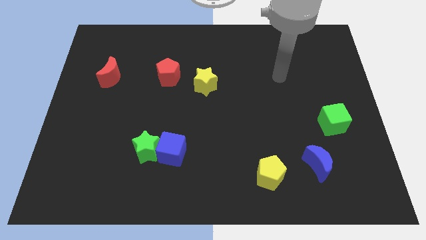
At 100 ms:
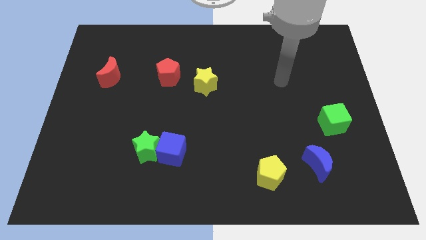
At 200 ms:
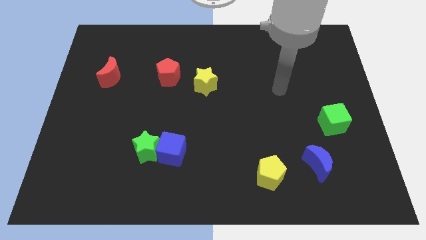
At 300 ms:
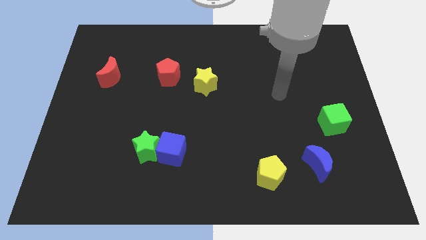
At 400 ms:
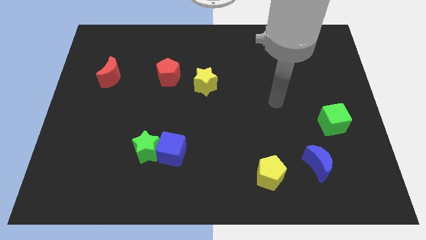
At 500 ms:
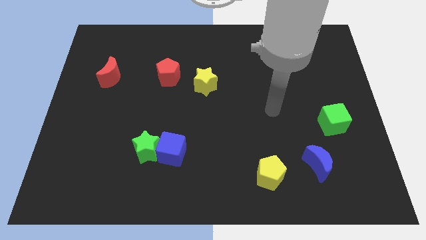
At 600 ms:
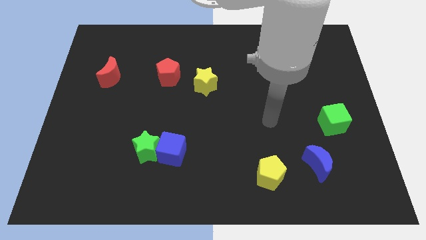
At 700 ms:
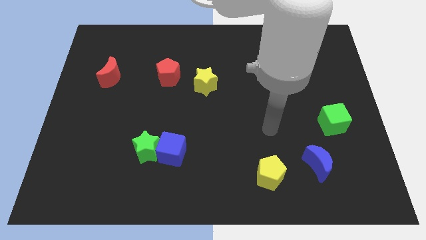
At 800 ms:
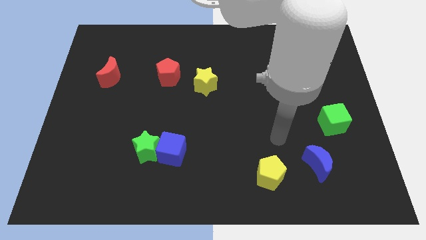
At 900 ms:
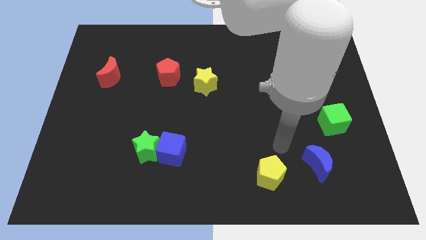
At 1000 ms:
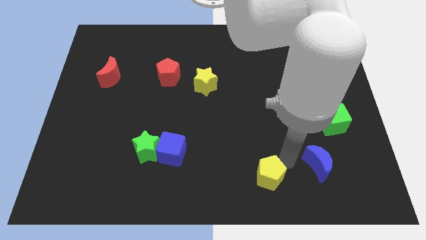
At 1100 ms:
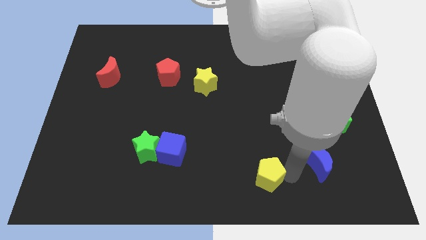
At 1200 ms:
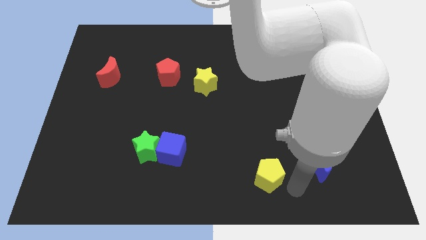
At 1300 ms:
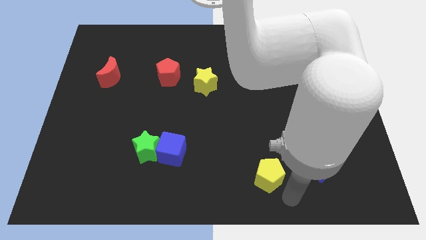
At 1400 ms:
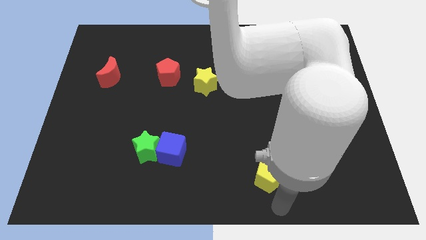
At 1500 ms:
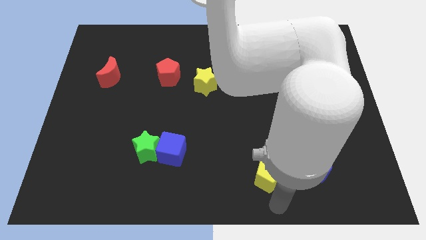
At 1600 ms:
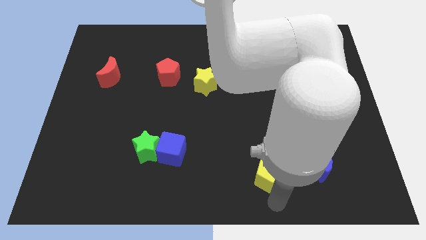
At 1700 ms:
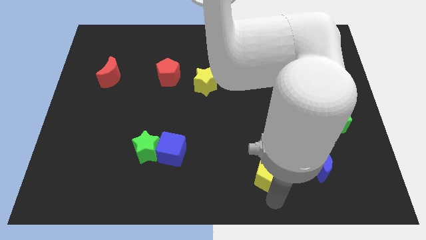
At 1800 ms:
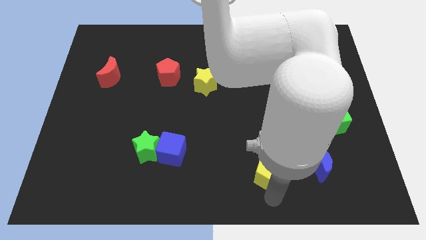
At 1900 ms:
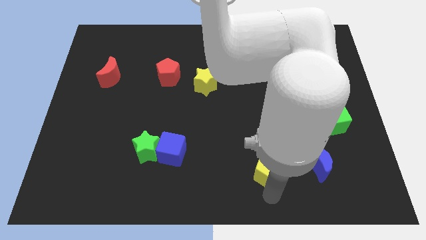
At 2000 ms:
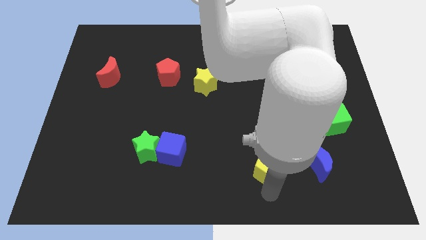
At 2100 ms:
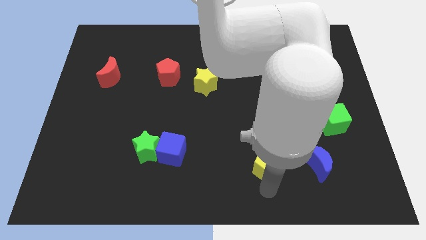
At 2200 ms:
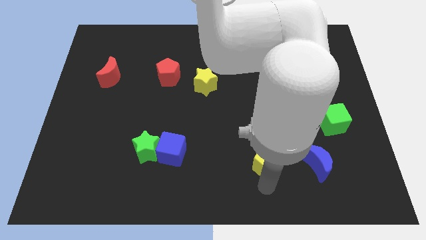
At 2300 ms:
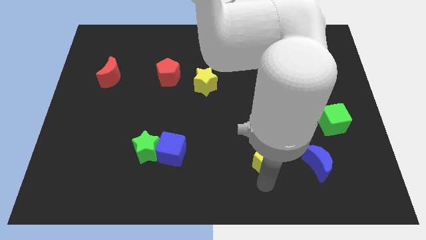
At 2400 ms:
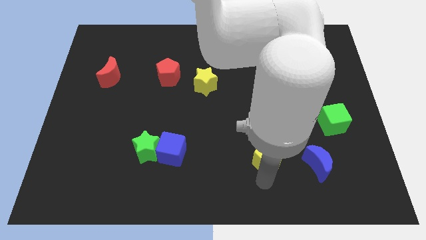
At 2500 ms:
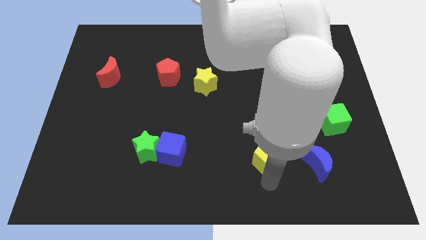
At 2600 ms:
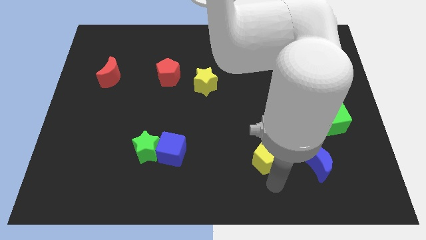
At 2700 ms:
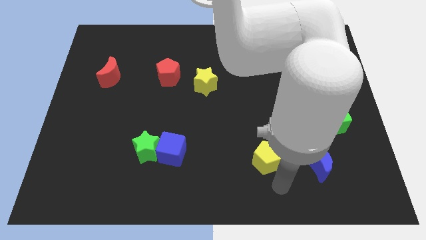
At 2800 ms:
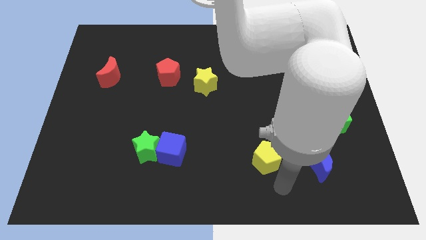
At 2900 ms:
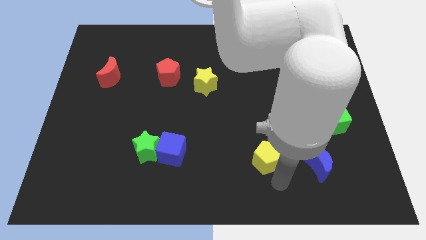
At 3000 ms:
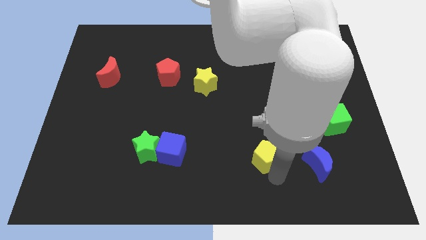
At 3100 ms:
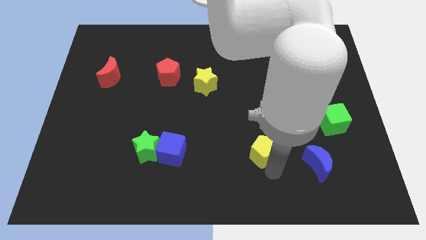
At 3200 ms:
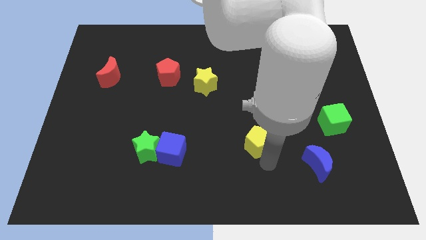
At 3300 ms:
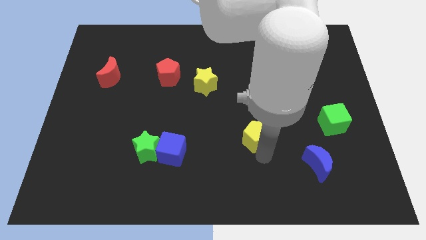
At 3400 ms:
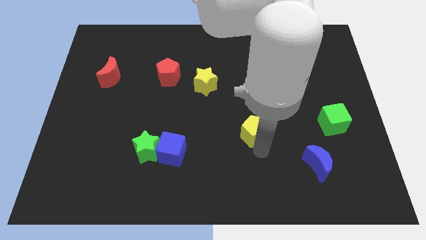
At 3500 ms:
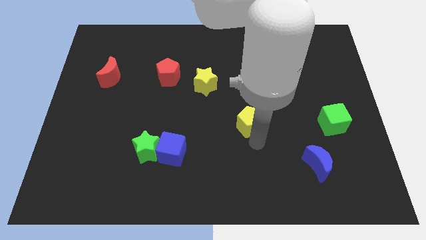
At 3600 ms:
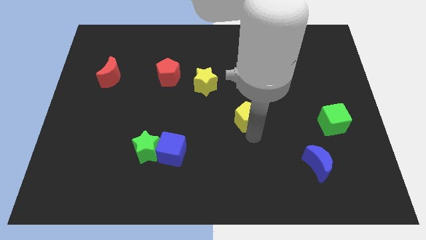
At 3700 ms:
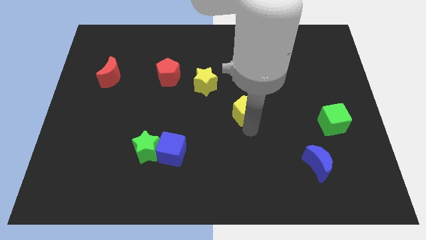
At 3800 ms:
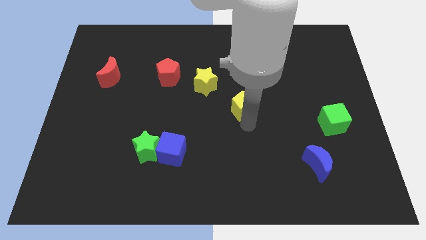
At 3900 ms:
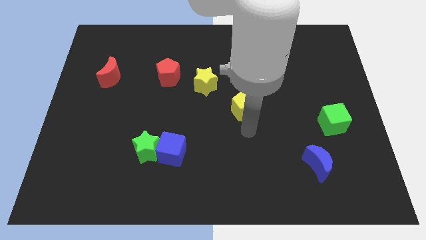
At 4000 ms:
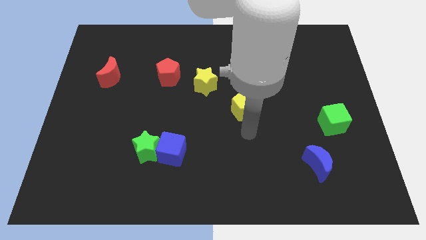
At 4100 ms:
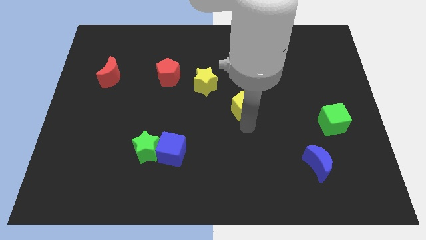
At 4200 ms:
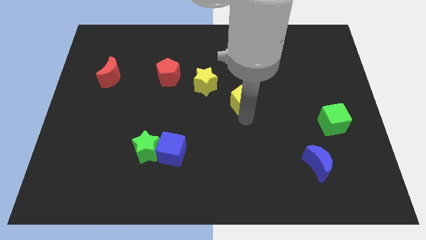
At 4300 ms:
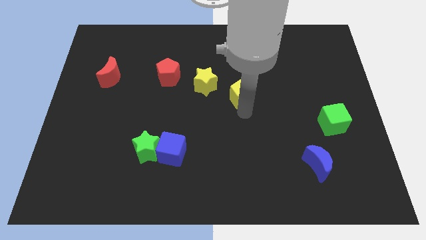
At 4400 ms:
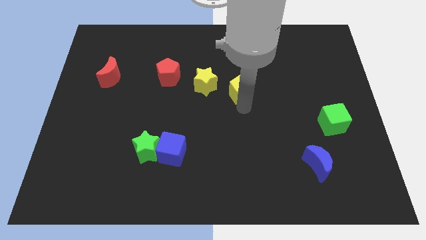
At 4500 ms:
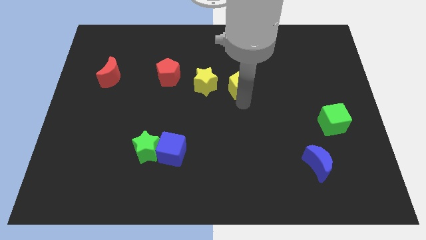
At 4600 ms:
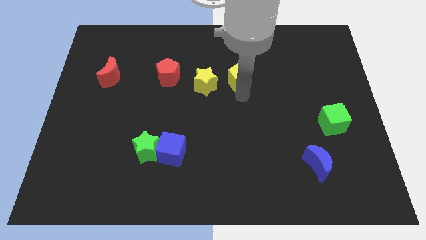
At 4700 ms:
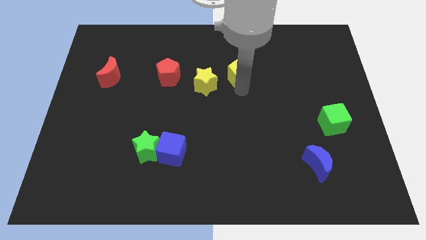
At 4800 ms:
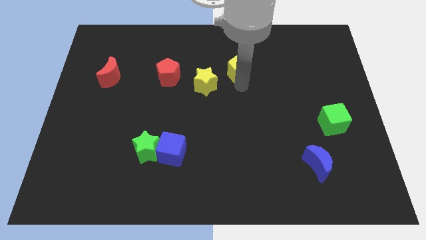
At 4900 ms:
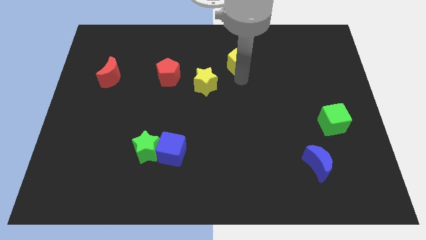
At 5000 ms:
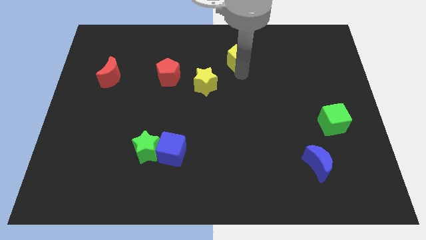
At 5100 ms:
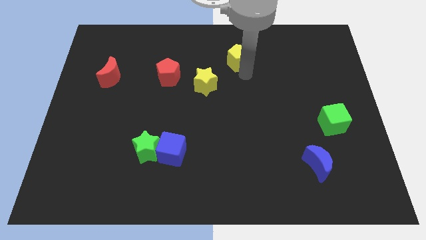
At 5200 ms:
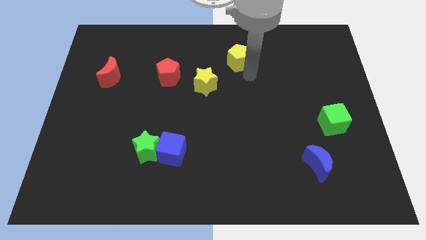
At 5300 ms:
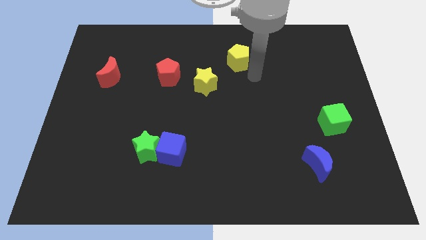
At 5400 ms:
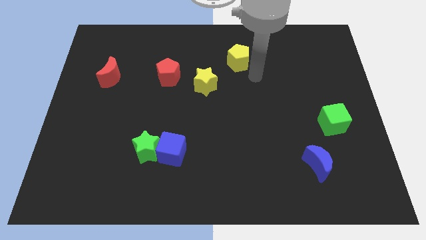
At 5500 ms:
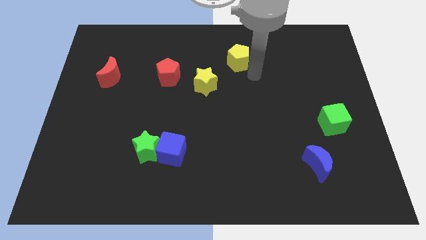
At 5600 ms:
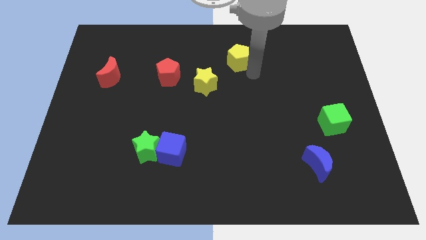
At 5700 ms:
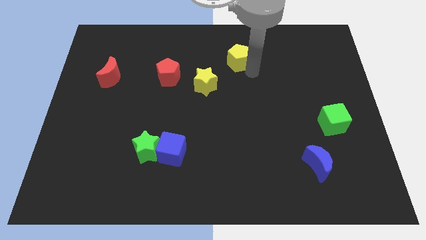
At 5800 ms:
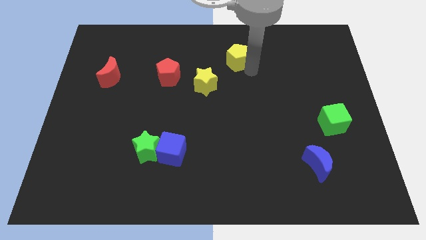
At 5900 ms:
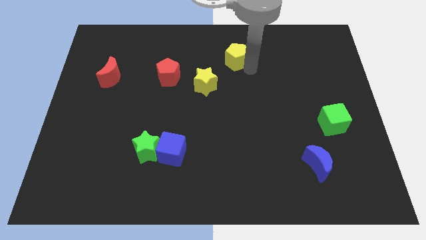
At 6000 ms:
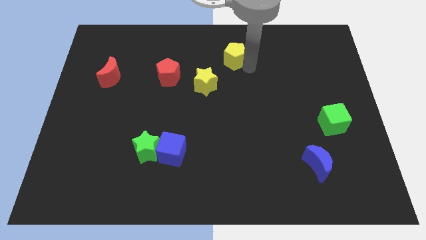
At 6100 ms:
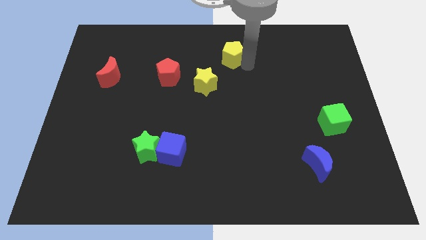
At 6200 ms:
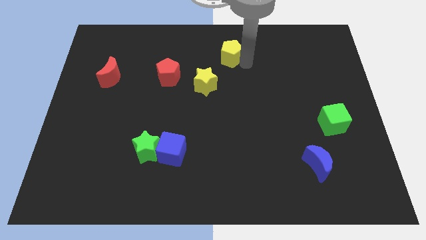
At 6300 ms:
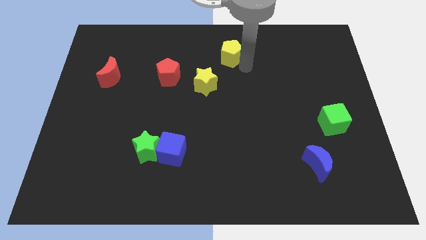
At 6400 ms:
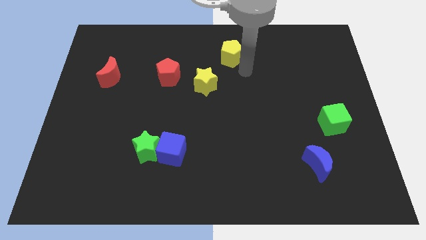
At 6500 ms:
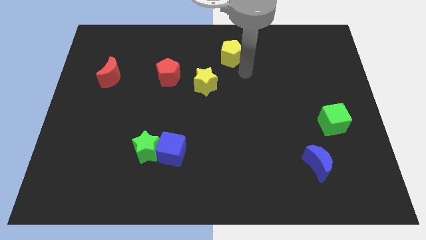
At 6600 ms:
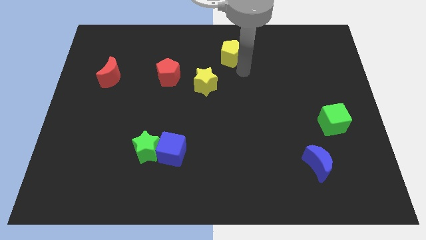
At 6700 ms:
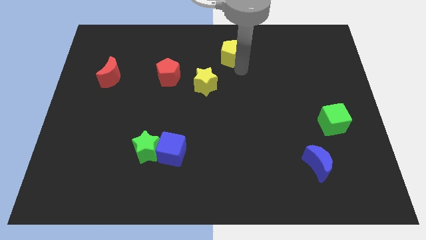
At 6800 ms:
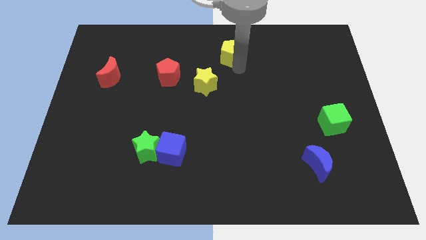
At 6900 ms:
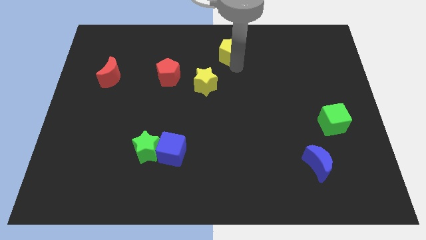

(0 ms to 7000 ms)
move the yellow pentagon to the top side

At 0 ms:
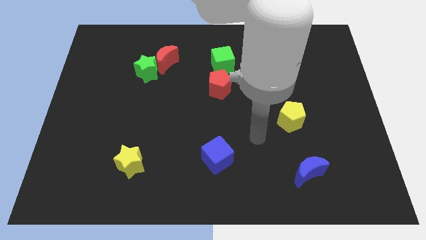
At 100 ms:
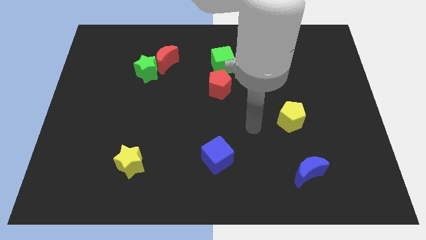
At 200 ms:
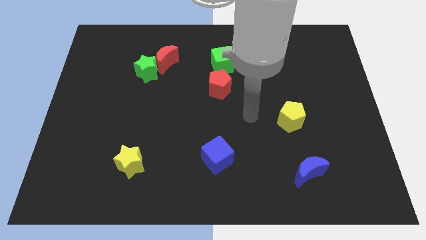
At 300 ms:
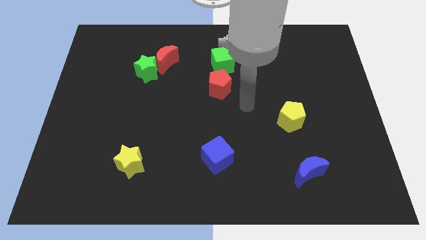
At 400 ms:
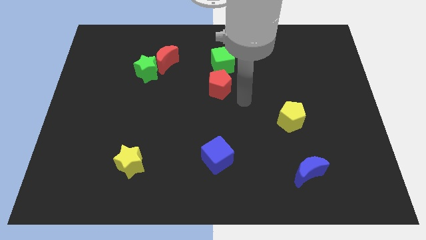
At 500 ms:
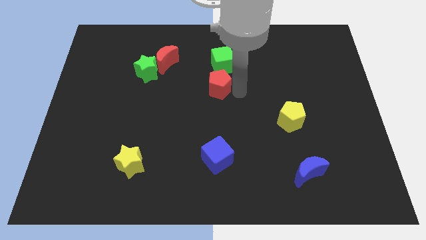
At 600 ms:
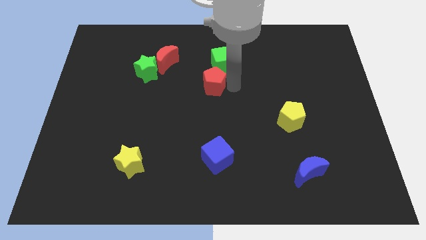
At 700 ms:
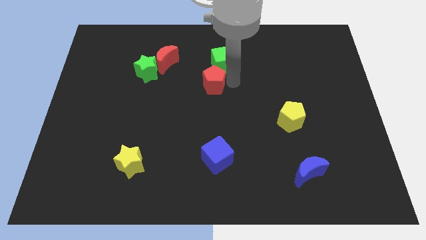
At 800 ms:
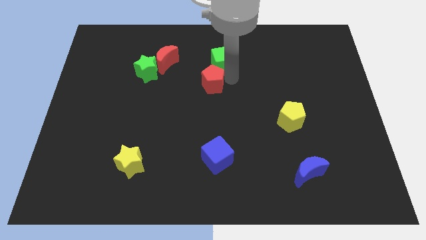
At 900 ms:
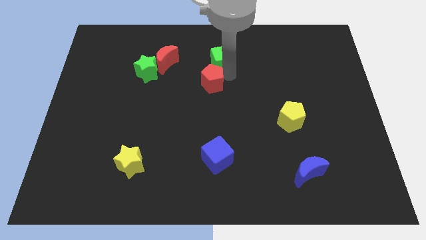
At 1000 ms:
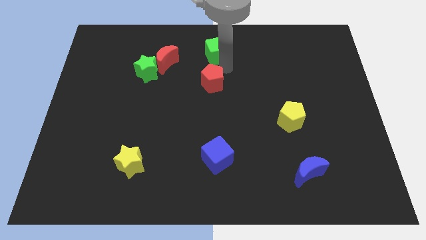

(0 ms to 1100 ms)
push the green cube to the top
